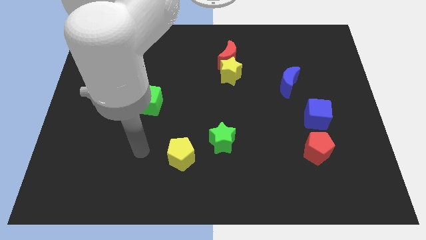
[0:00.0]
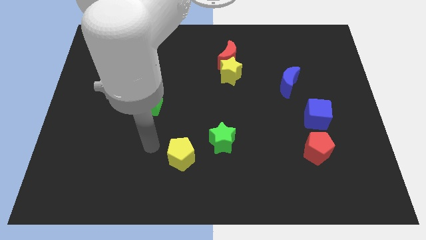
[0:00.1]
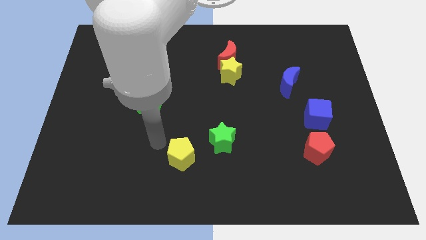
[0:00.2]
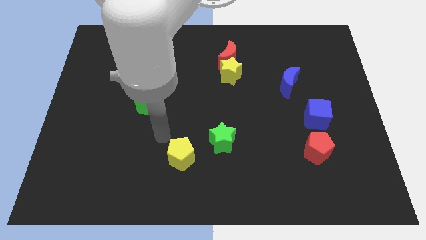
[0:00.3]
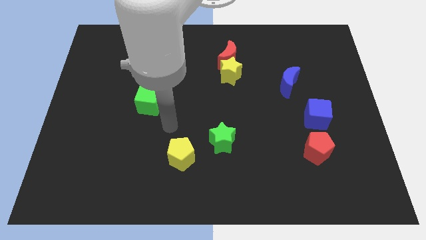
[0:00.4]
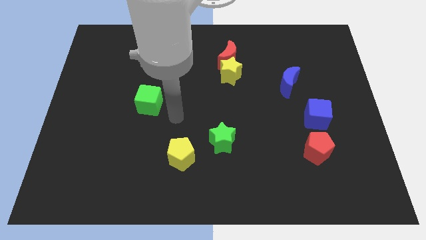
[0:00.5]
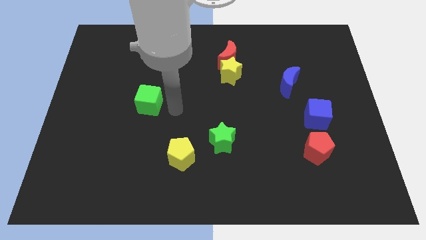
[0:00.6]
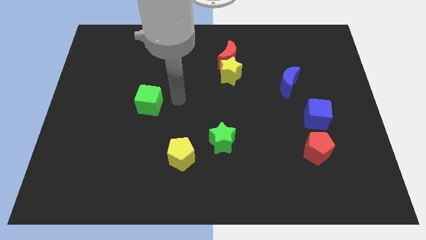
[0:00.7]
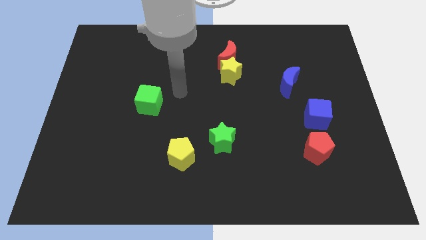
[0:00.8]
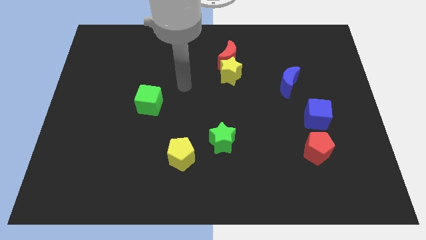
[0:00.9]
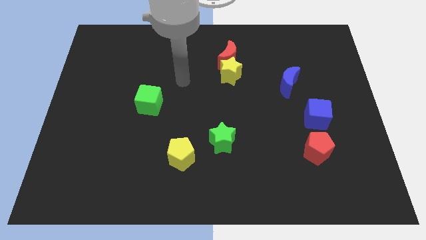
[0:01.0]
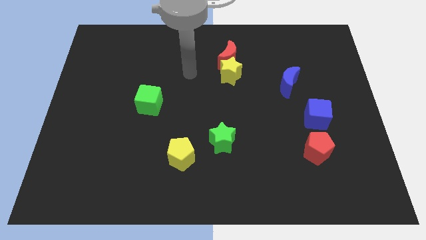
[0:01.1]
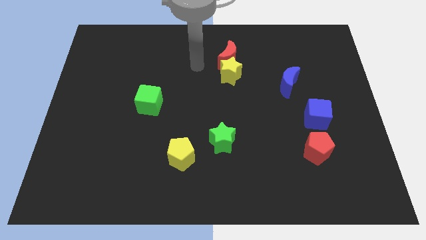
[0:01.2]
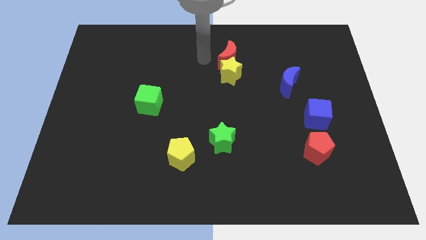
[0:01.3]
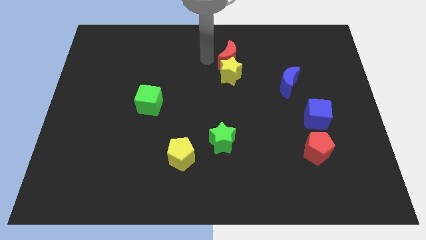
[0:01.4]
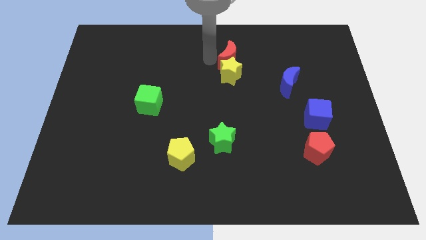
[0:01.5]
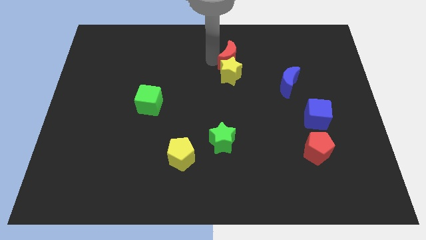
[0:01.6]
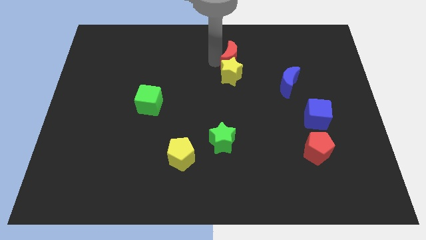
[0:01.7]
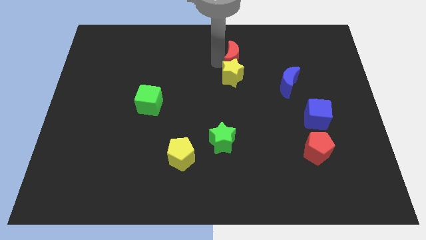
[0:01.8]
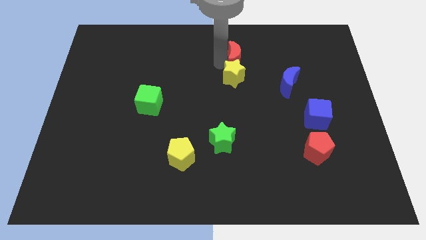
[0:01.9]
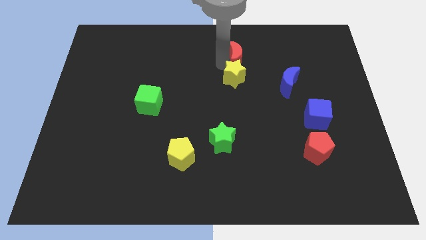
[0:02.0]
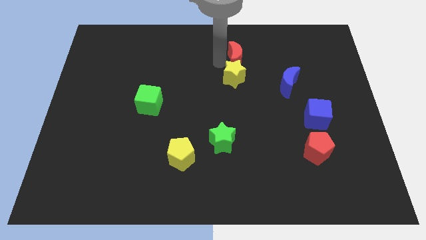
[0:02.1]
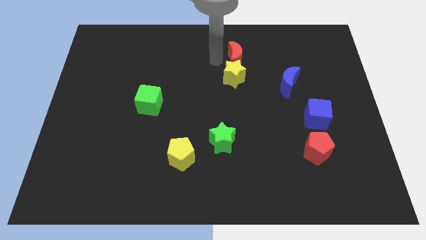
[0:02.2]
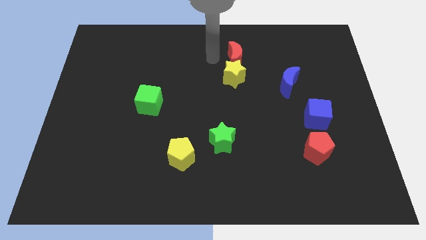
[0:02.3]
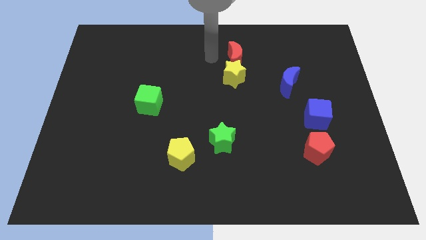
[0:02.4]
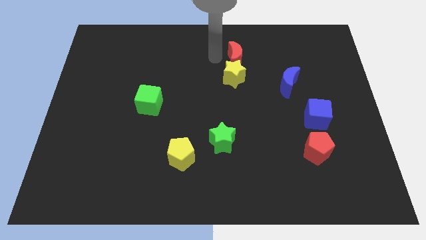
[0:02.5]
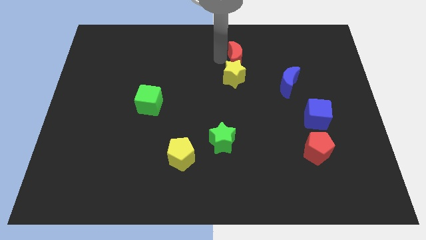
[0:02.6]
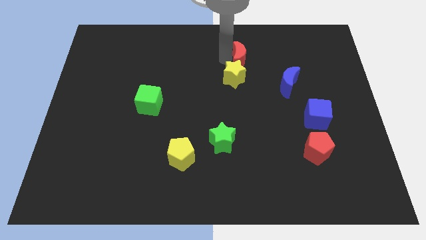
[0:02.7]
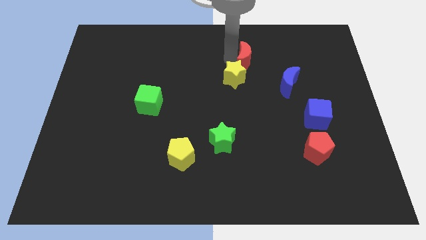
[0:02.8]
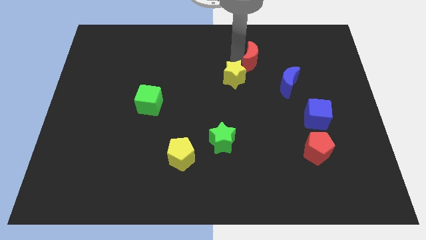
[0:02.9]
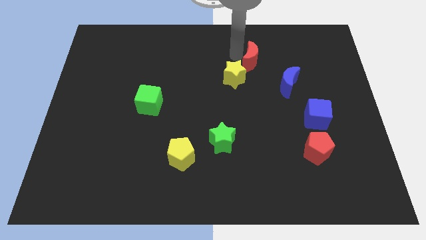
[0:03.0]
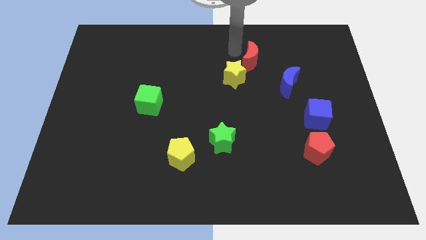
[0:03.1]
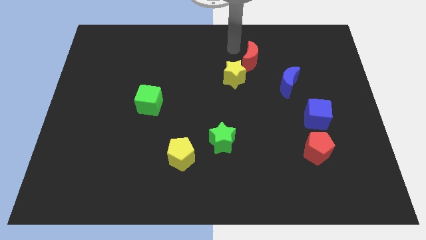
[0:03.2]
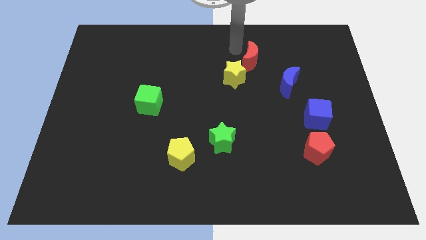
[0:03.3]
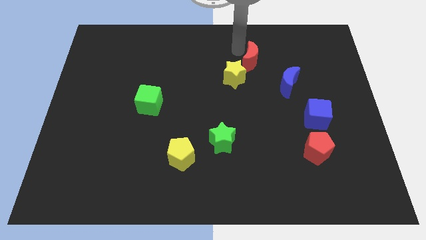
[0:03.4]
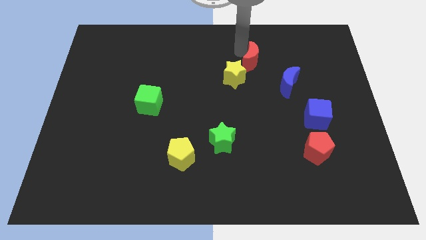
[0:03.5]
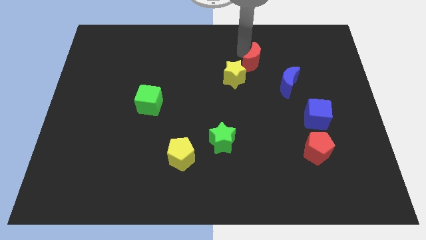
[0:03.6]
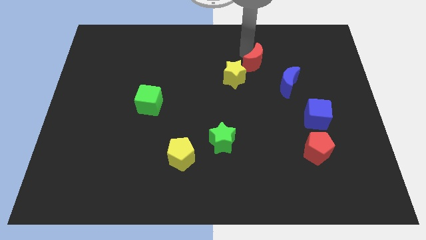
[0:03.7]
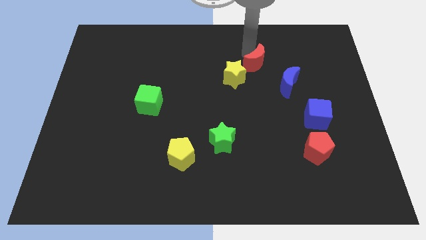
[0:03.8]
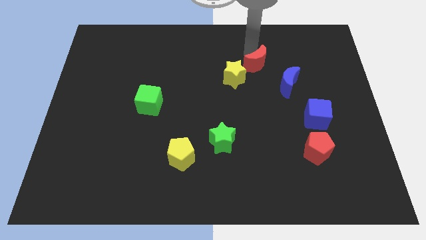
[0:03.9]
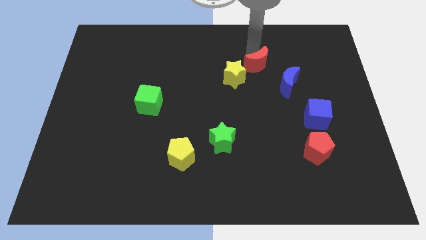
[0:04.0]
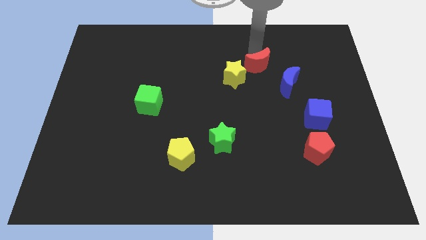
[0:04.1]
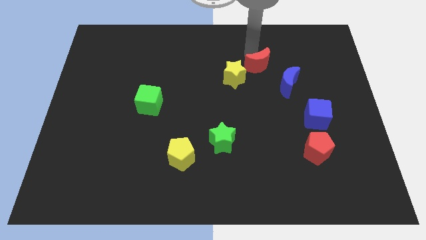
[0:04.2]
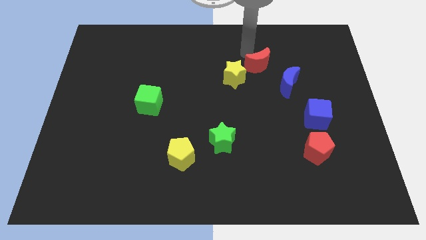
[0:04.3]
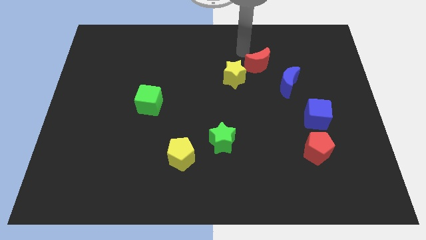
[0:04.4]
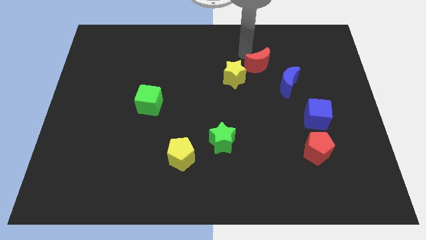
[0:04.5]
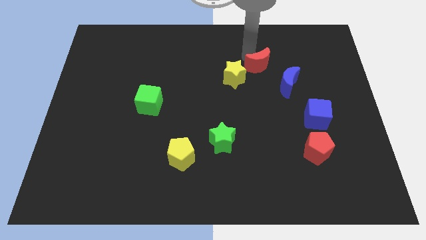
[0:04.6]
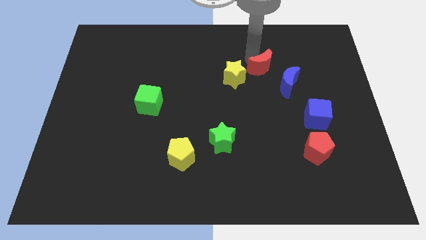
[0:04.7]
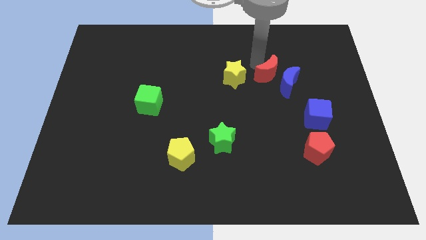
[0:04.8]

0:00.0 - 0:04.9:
move the red moon towards the blue moon

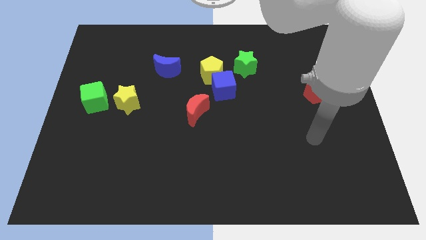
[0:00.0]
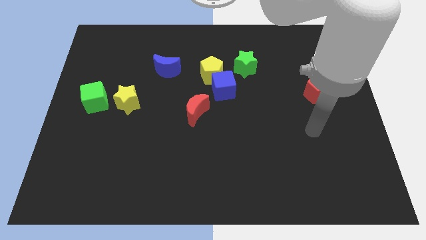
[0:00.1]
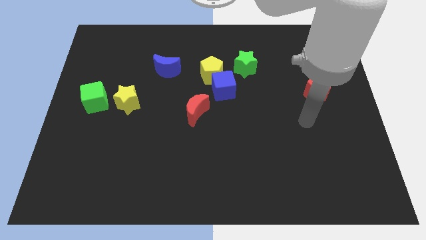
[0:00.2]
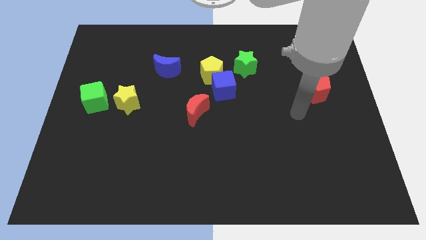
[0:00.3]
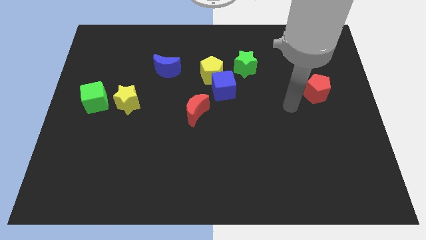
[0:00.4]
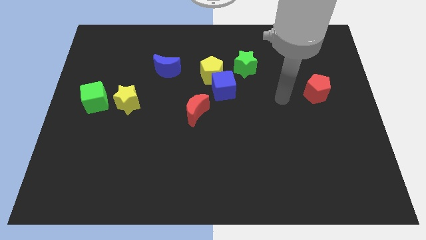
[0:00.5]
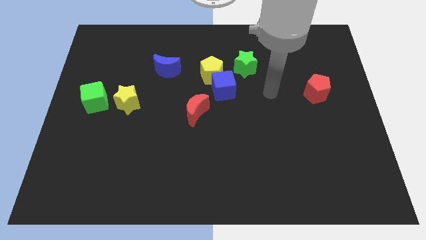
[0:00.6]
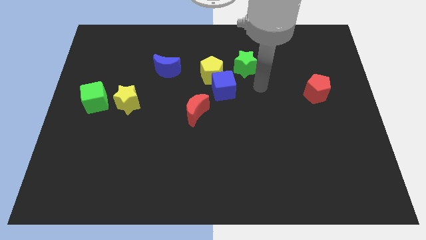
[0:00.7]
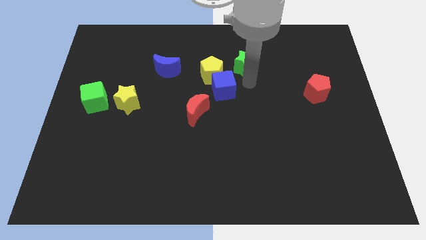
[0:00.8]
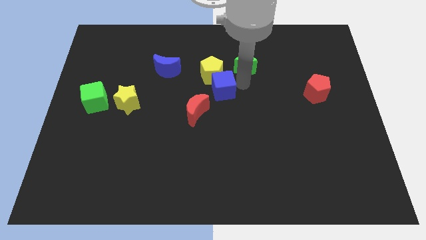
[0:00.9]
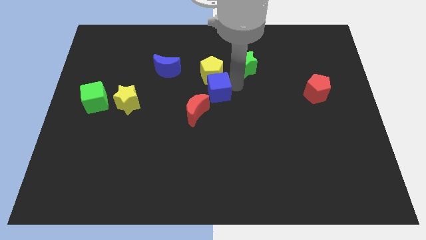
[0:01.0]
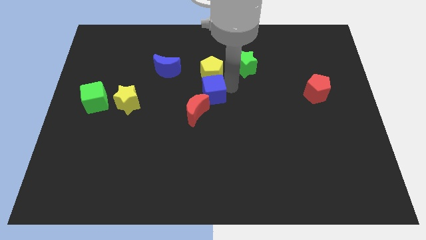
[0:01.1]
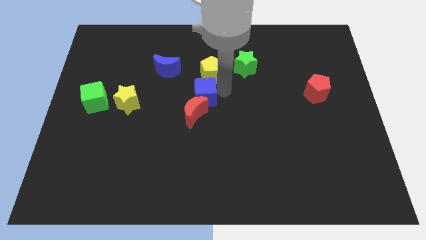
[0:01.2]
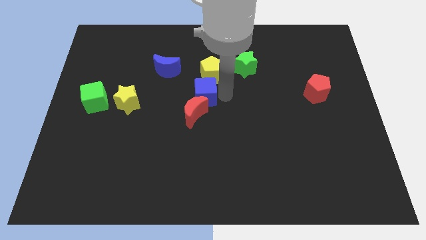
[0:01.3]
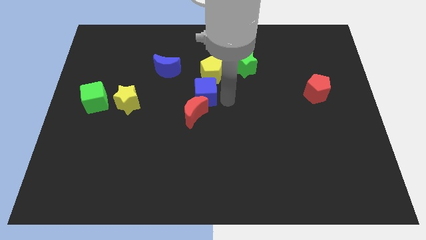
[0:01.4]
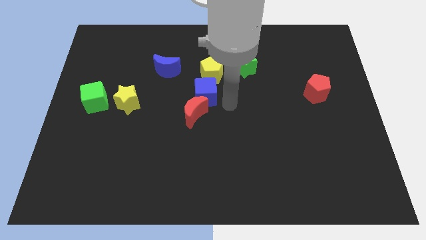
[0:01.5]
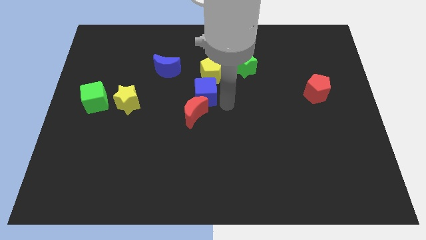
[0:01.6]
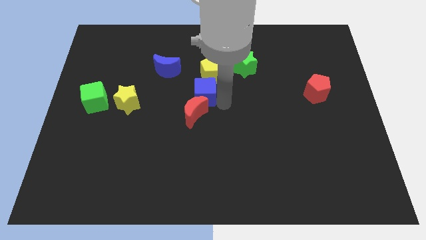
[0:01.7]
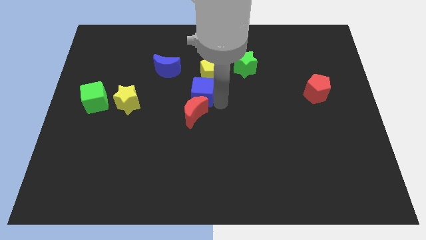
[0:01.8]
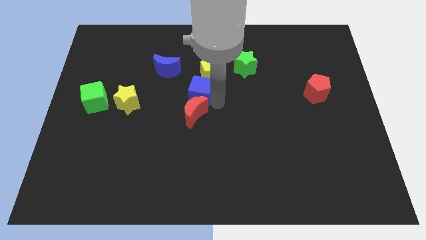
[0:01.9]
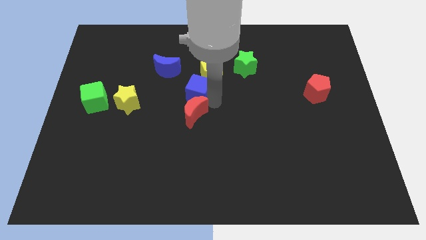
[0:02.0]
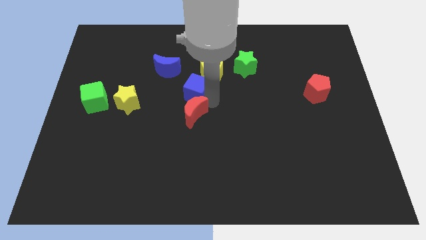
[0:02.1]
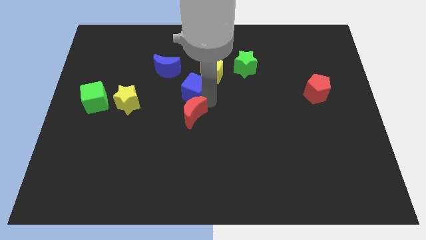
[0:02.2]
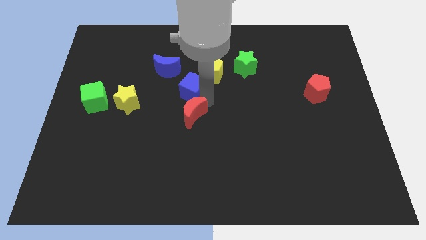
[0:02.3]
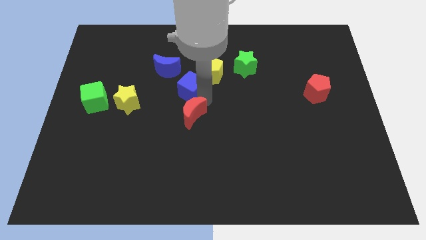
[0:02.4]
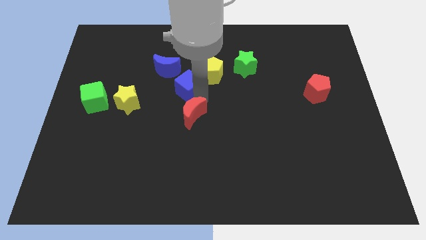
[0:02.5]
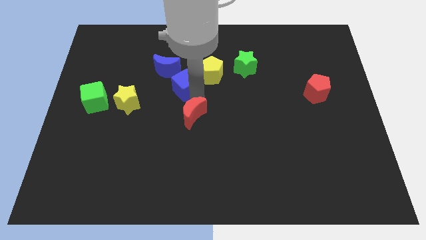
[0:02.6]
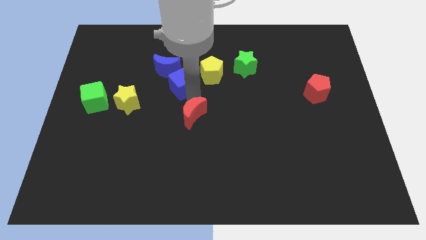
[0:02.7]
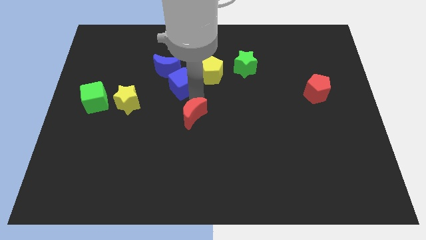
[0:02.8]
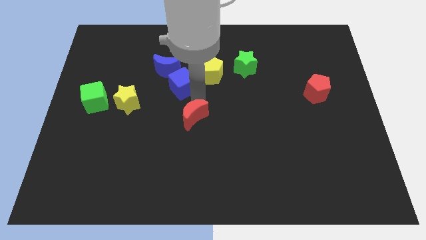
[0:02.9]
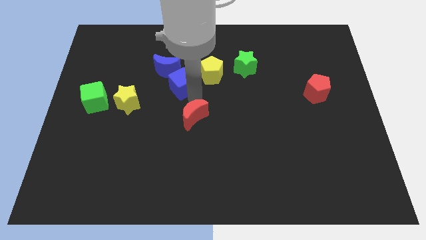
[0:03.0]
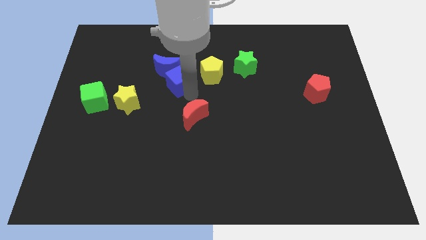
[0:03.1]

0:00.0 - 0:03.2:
put the blue cube towards the blue moon
